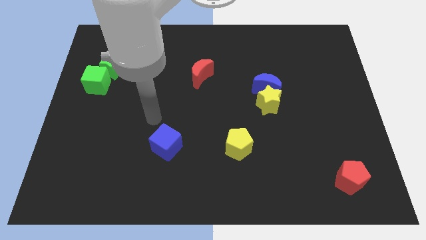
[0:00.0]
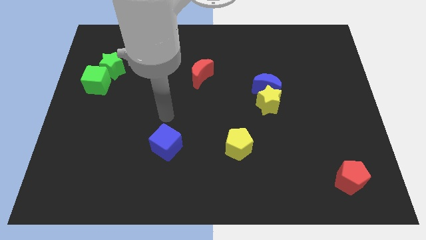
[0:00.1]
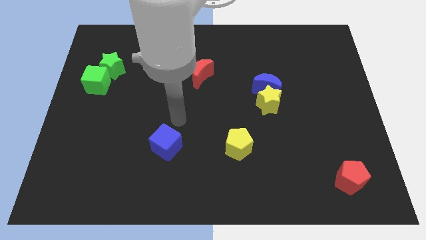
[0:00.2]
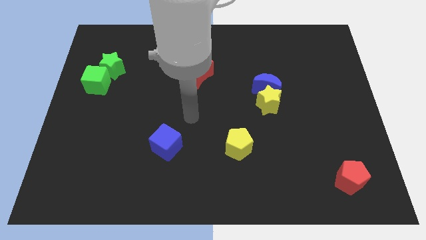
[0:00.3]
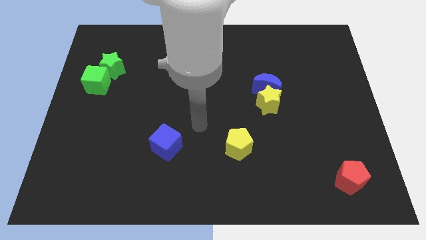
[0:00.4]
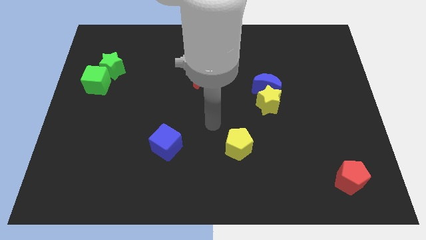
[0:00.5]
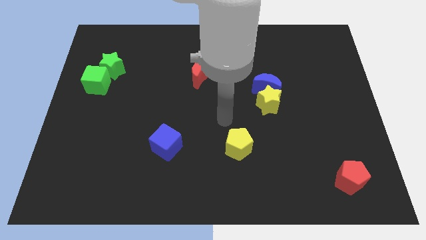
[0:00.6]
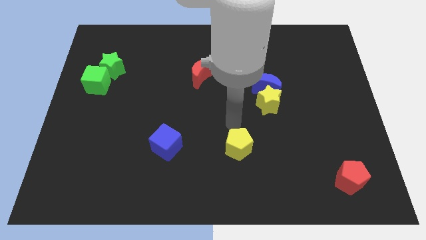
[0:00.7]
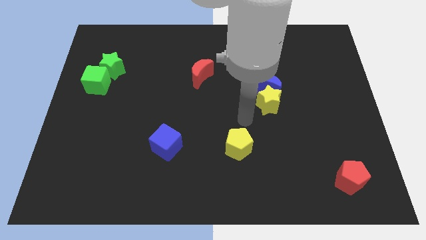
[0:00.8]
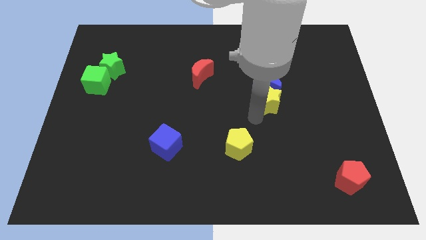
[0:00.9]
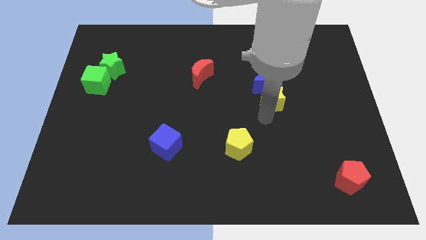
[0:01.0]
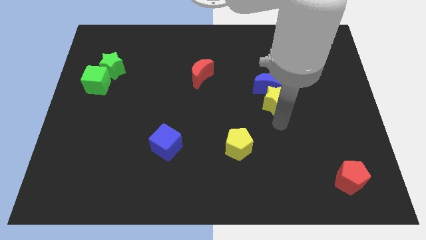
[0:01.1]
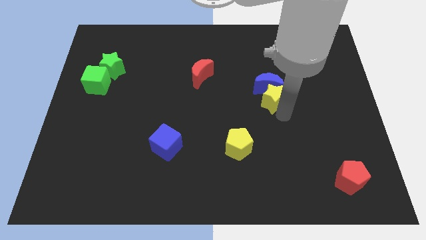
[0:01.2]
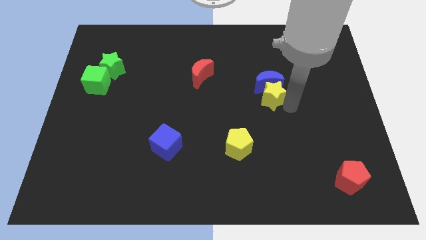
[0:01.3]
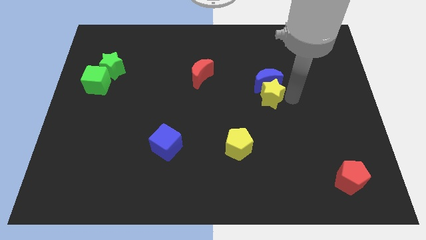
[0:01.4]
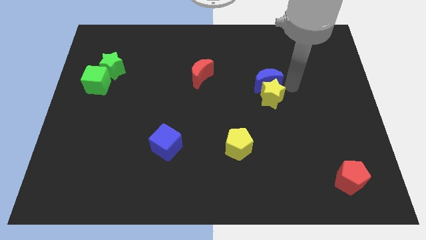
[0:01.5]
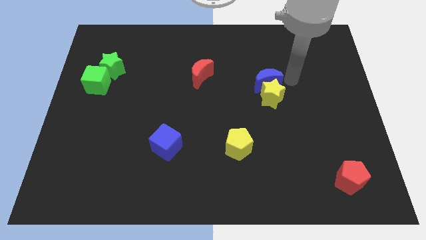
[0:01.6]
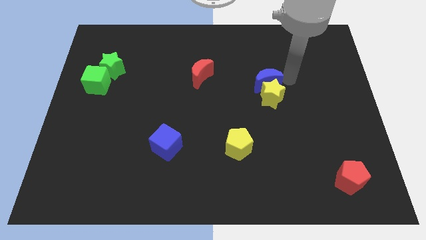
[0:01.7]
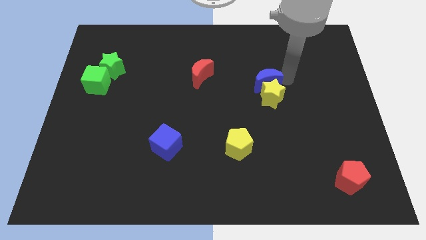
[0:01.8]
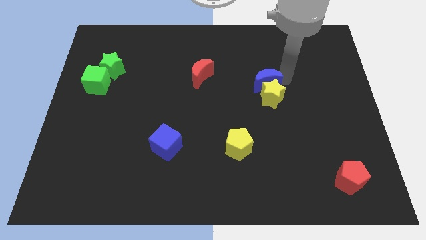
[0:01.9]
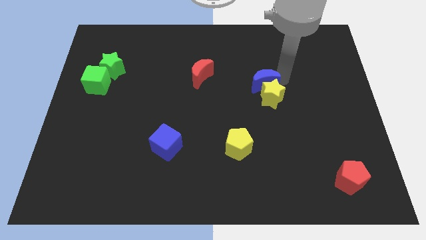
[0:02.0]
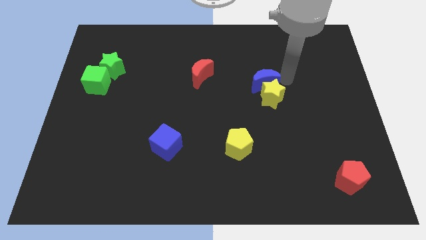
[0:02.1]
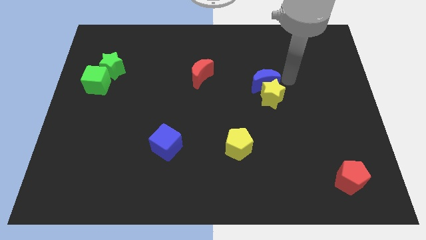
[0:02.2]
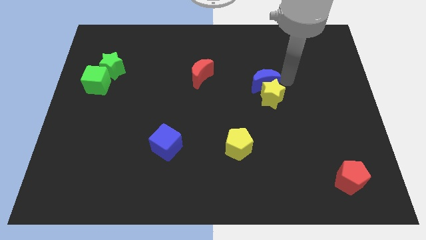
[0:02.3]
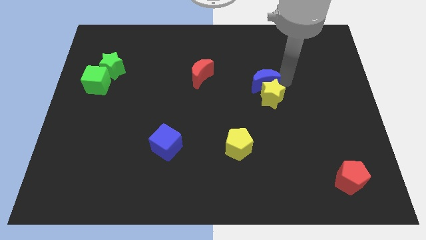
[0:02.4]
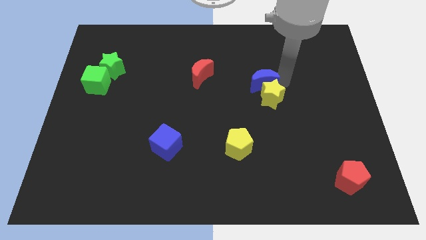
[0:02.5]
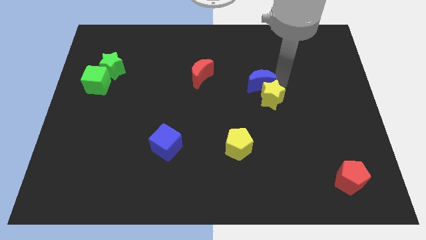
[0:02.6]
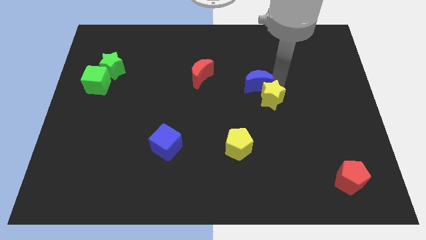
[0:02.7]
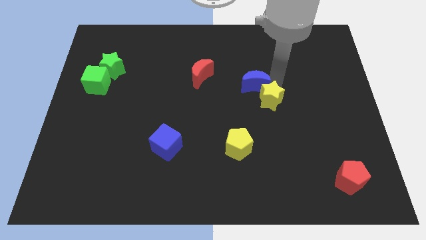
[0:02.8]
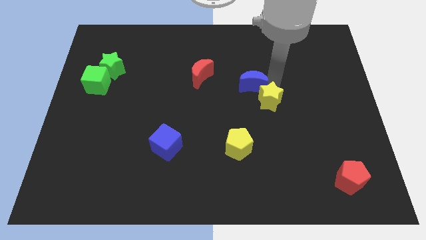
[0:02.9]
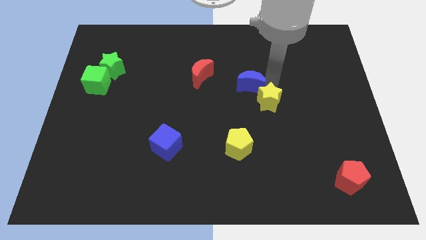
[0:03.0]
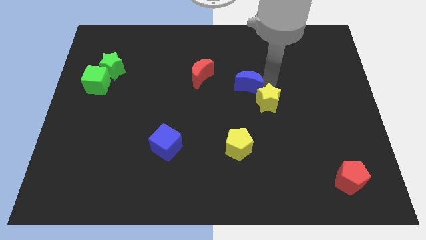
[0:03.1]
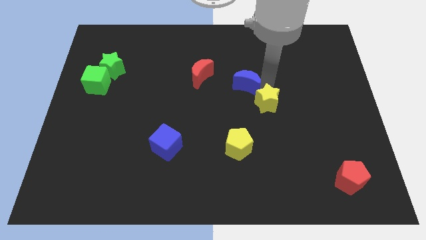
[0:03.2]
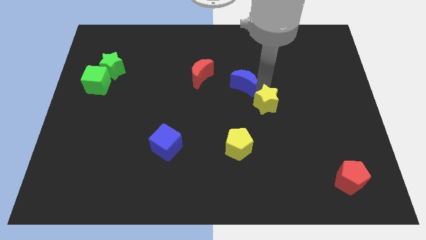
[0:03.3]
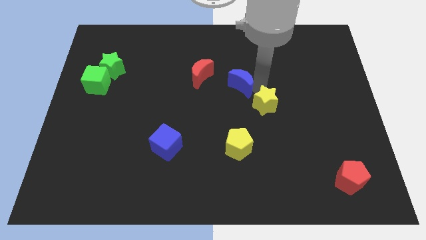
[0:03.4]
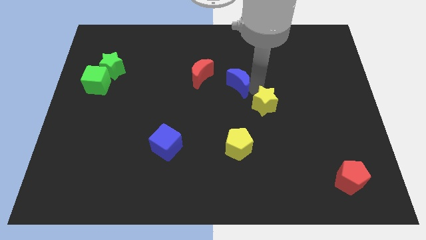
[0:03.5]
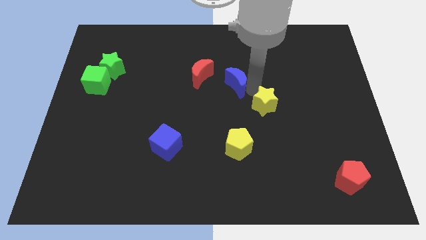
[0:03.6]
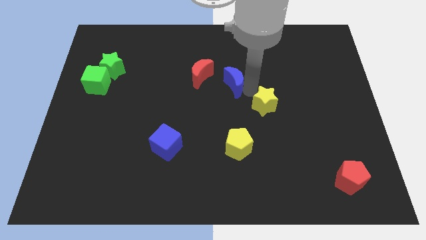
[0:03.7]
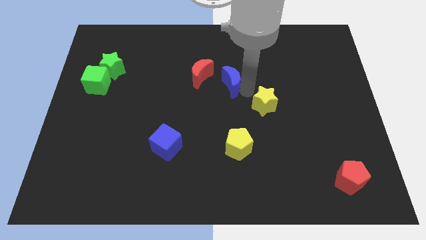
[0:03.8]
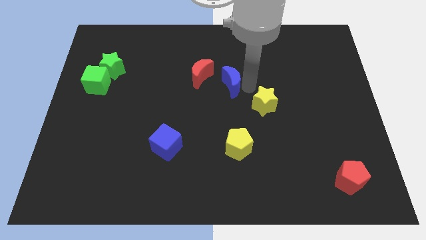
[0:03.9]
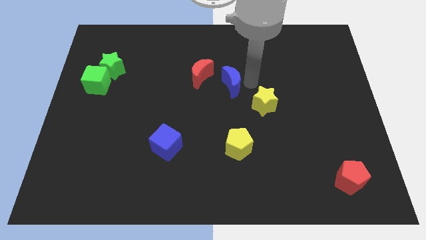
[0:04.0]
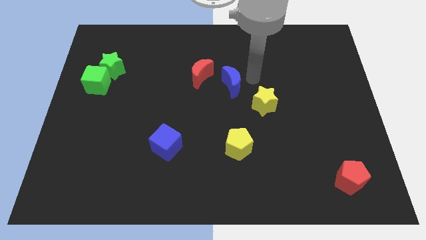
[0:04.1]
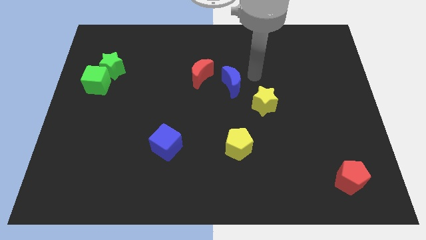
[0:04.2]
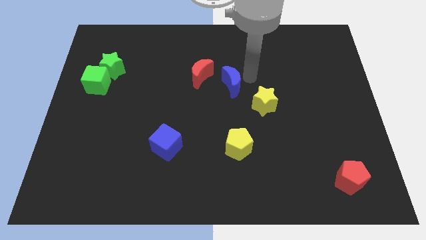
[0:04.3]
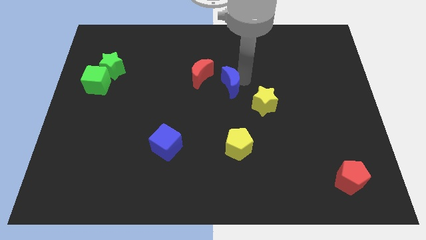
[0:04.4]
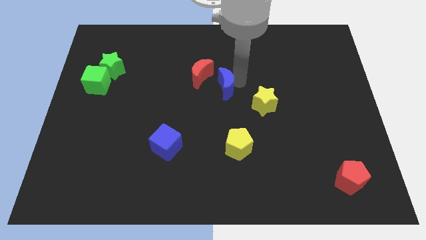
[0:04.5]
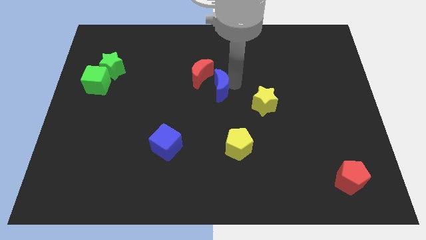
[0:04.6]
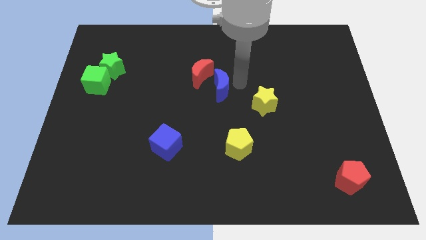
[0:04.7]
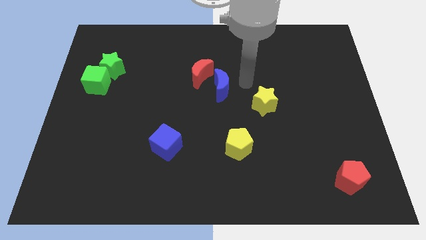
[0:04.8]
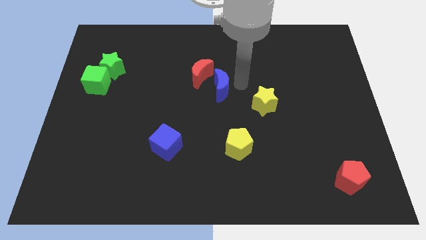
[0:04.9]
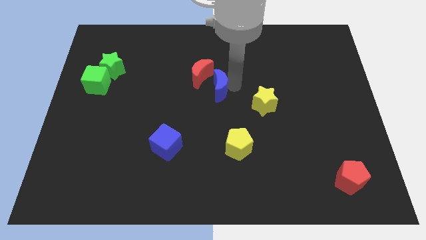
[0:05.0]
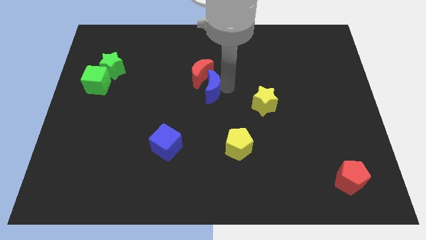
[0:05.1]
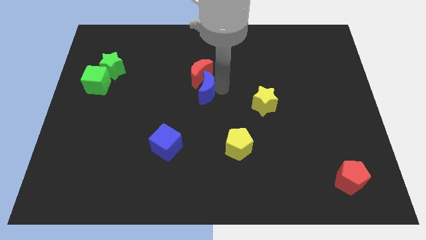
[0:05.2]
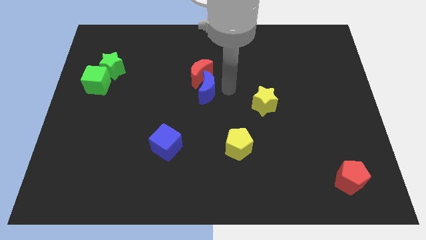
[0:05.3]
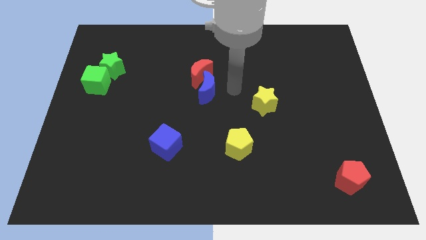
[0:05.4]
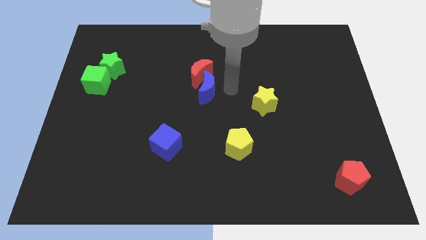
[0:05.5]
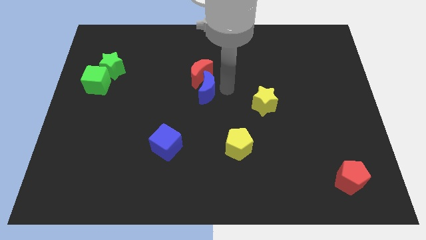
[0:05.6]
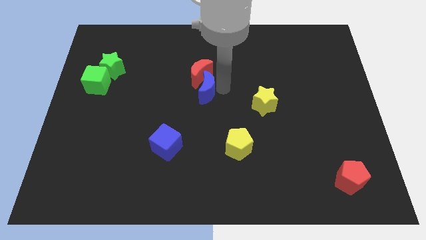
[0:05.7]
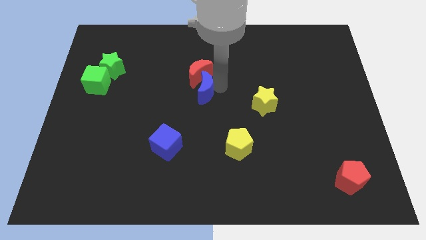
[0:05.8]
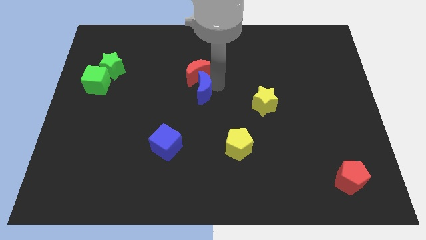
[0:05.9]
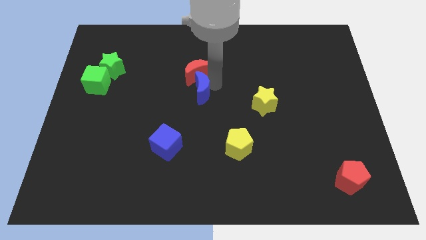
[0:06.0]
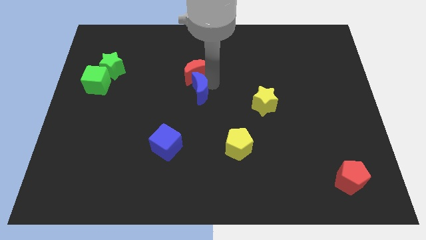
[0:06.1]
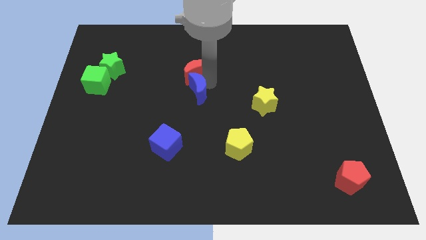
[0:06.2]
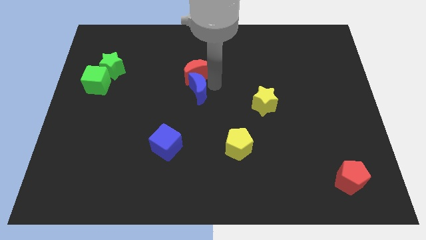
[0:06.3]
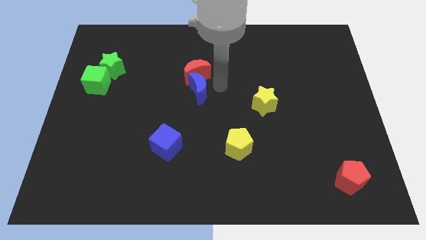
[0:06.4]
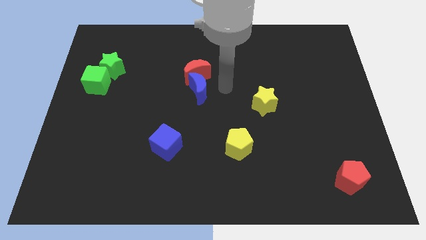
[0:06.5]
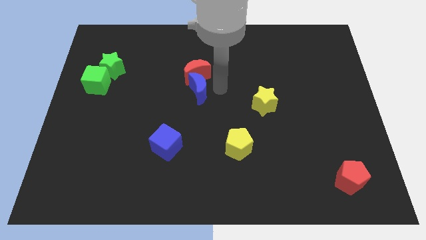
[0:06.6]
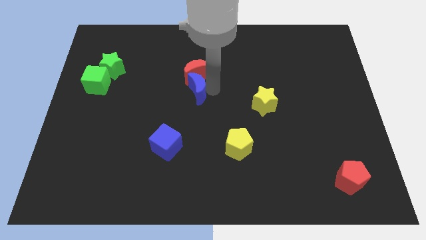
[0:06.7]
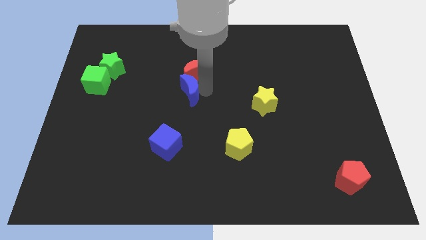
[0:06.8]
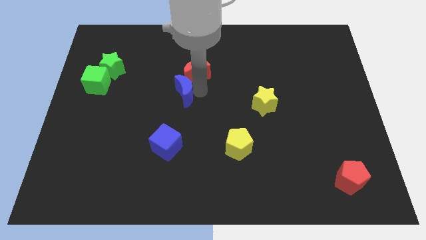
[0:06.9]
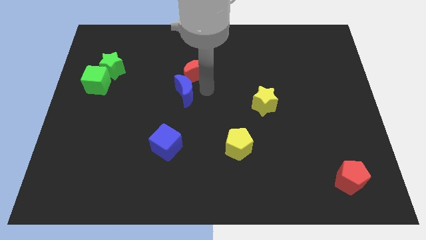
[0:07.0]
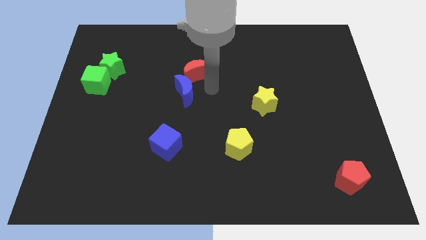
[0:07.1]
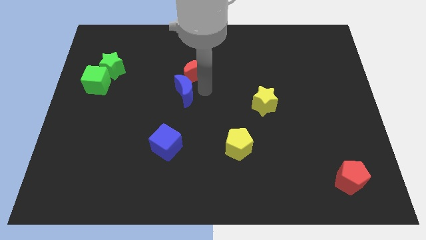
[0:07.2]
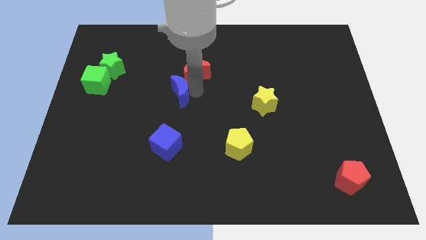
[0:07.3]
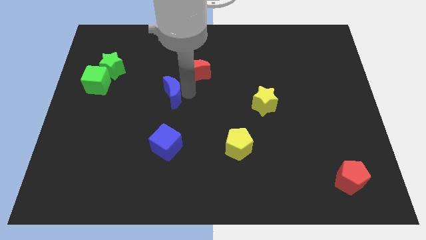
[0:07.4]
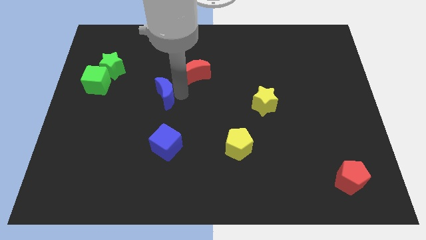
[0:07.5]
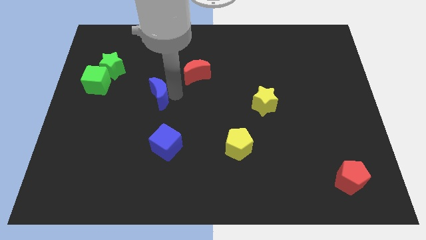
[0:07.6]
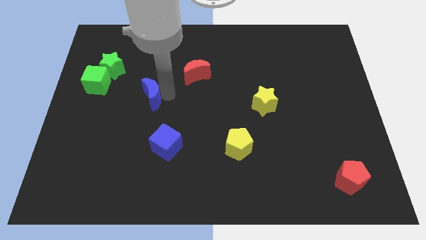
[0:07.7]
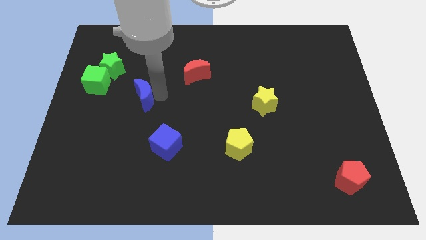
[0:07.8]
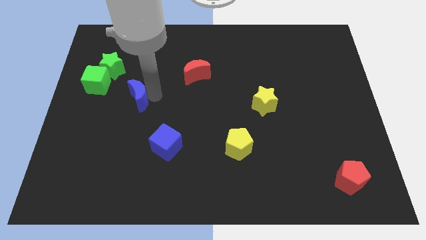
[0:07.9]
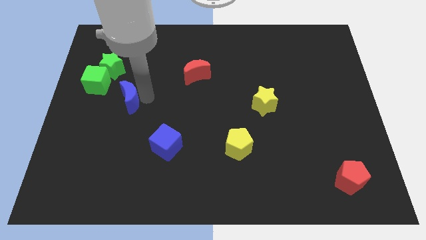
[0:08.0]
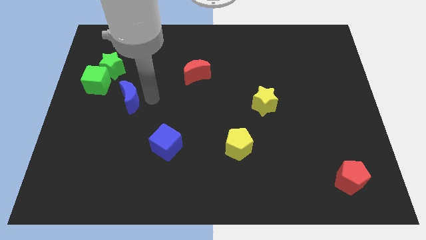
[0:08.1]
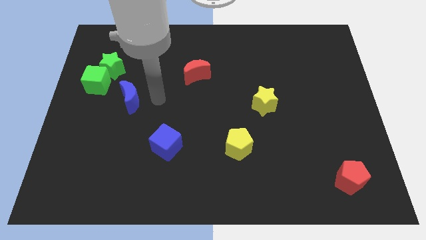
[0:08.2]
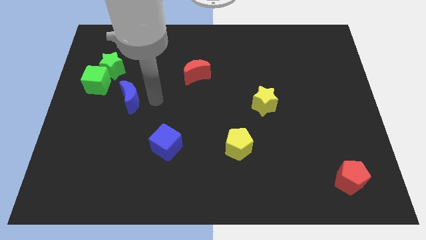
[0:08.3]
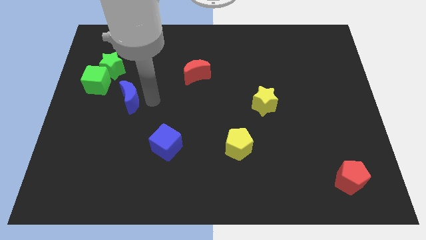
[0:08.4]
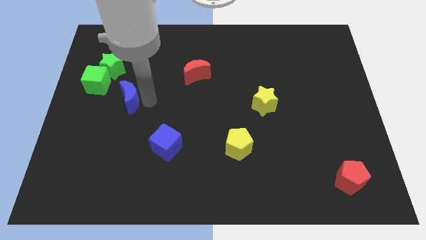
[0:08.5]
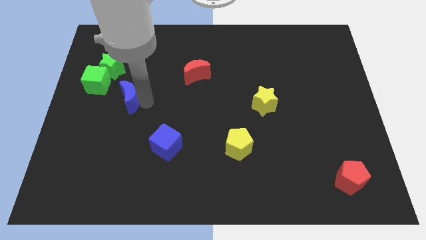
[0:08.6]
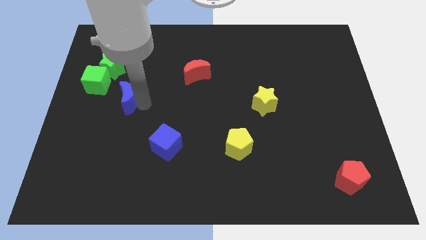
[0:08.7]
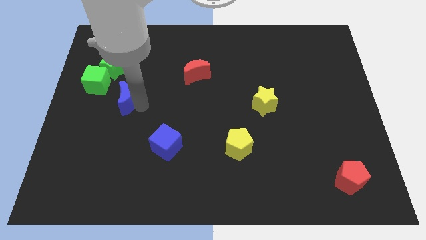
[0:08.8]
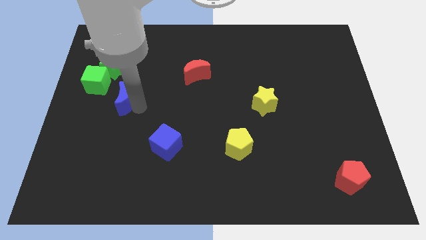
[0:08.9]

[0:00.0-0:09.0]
push the blue moon to the bottom of the green star
